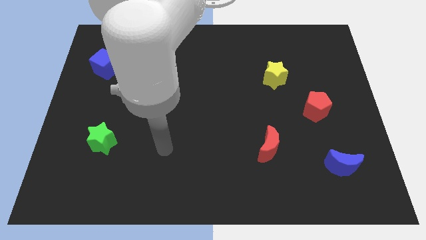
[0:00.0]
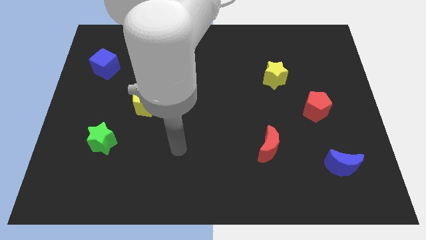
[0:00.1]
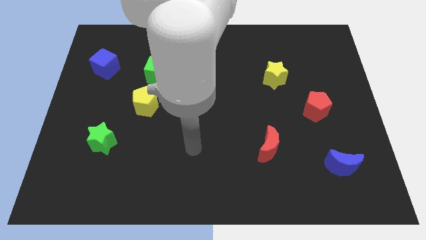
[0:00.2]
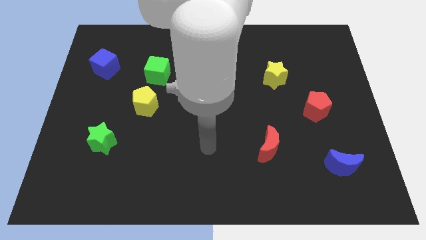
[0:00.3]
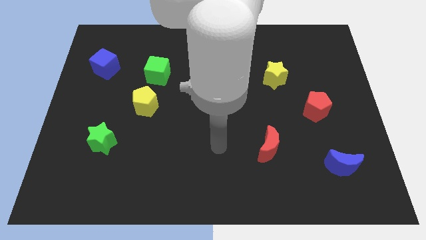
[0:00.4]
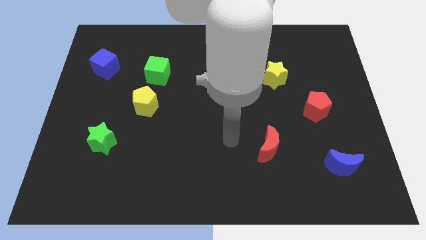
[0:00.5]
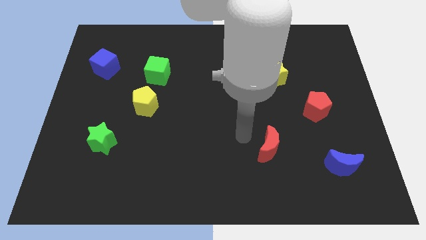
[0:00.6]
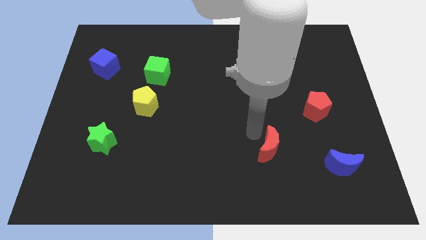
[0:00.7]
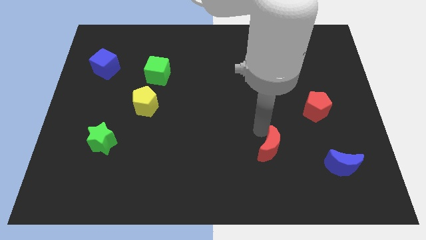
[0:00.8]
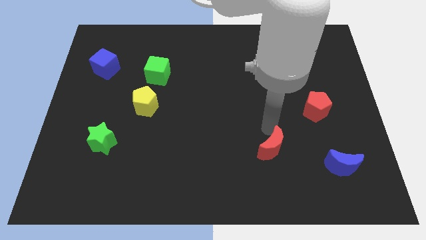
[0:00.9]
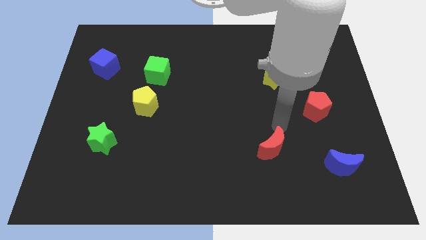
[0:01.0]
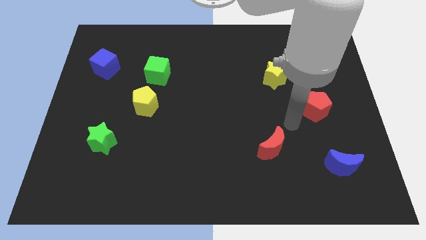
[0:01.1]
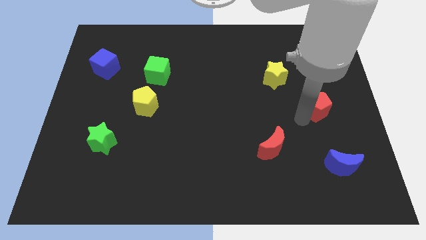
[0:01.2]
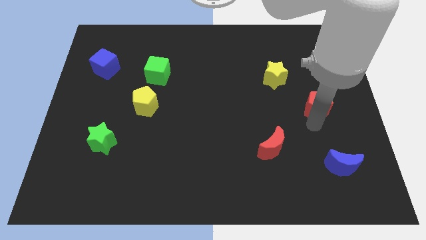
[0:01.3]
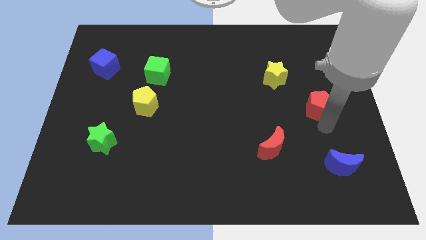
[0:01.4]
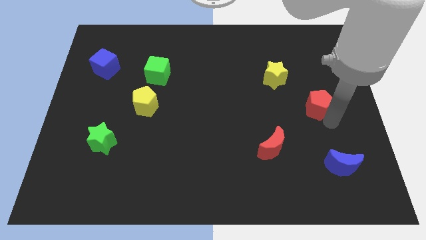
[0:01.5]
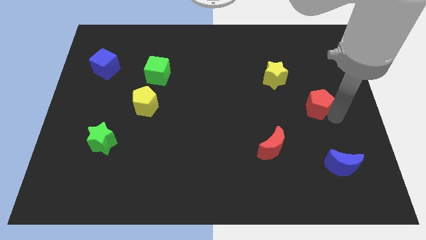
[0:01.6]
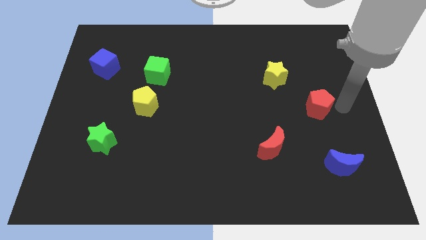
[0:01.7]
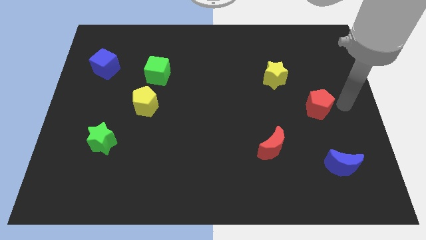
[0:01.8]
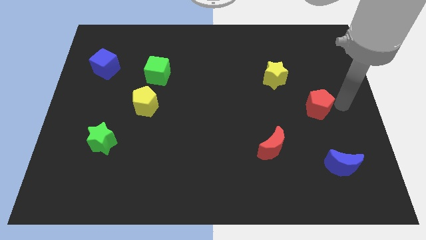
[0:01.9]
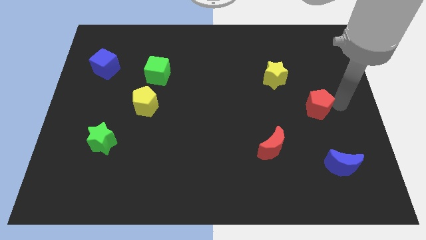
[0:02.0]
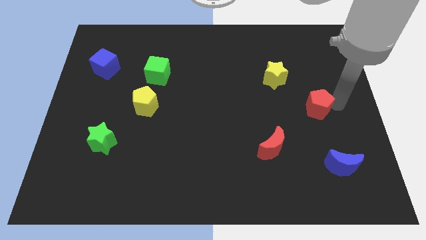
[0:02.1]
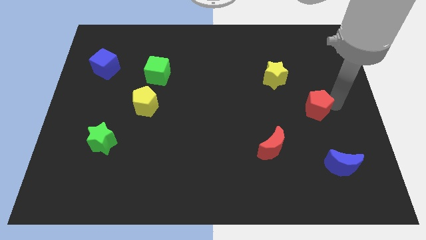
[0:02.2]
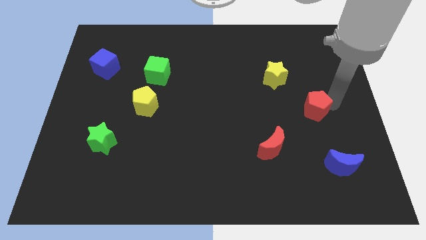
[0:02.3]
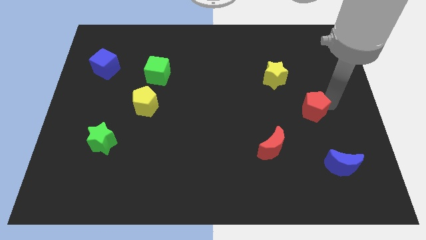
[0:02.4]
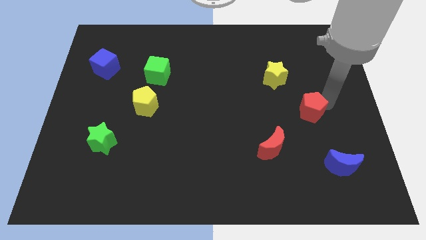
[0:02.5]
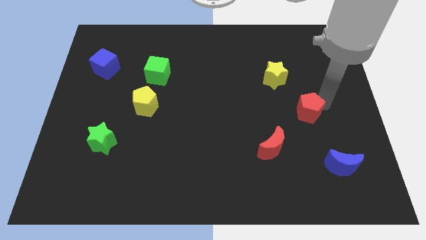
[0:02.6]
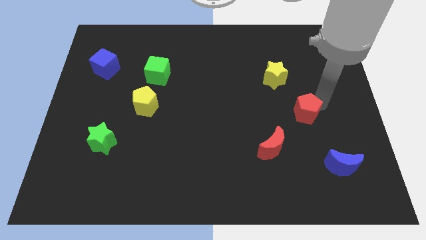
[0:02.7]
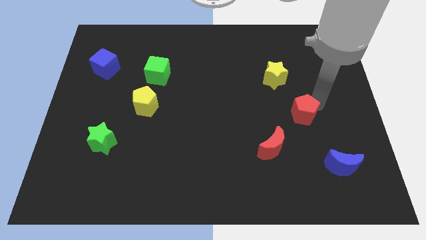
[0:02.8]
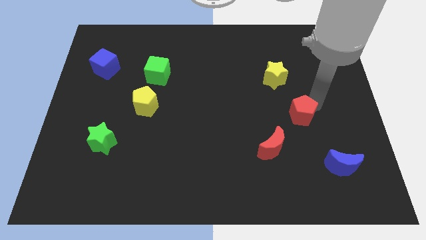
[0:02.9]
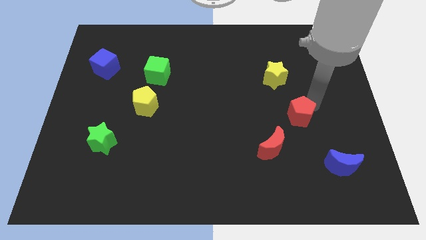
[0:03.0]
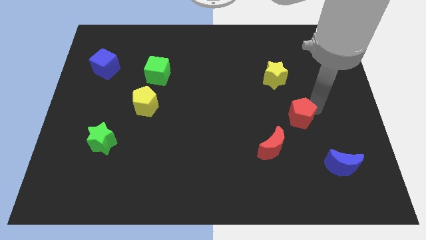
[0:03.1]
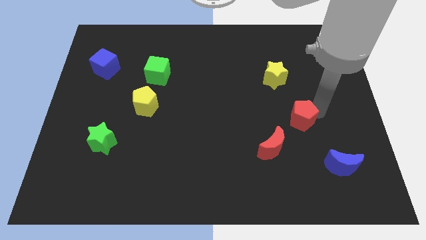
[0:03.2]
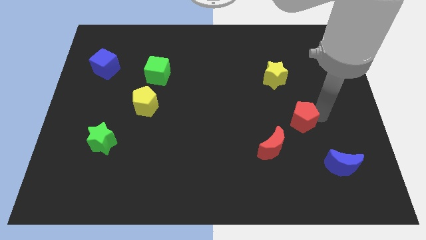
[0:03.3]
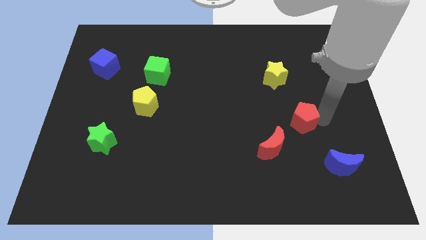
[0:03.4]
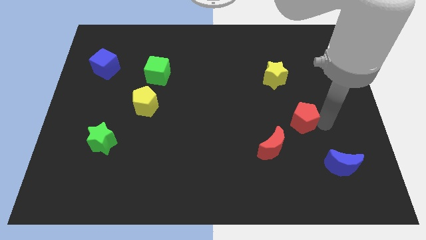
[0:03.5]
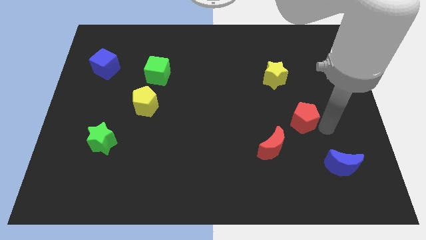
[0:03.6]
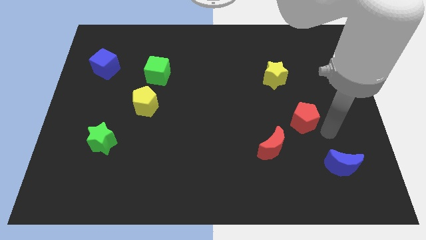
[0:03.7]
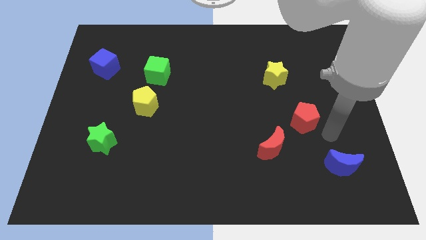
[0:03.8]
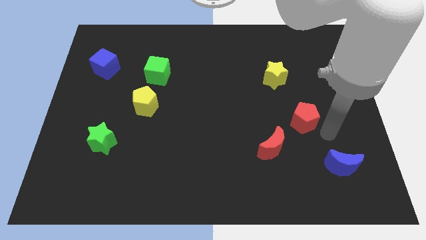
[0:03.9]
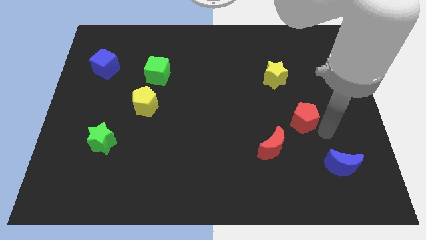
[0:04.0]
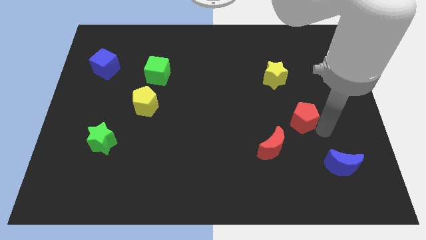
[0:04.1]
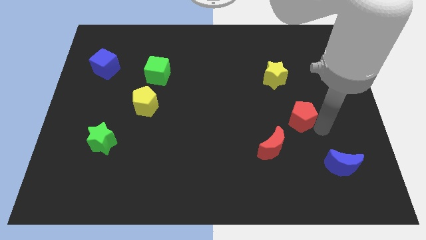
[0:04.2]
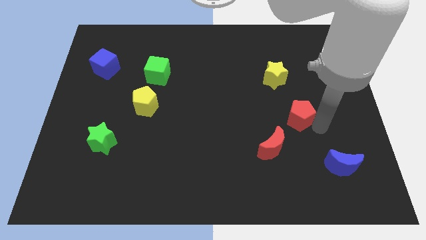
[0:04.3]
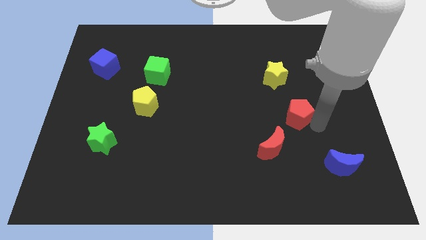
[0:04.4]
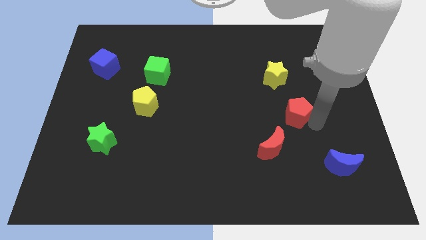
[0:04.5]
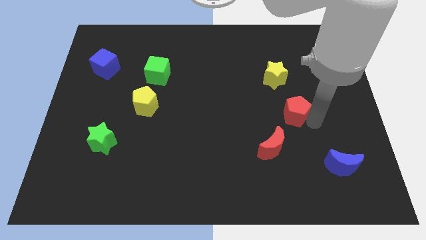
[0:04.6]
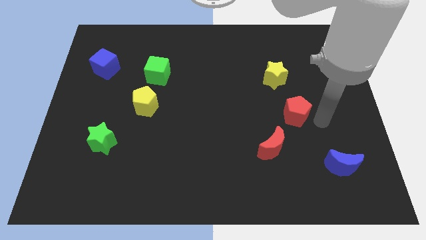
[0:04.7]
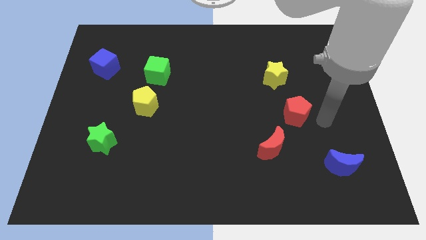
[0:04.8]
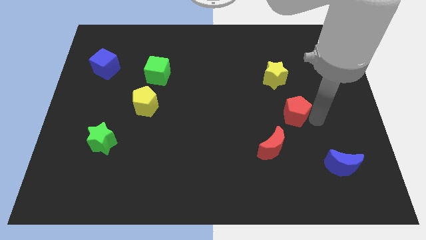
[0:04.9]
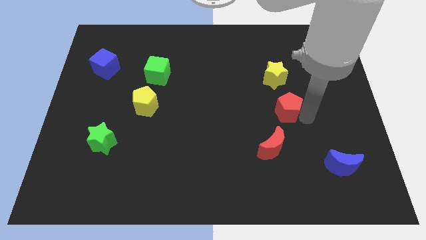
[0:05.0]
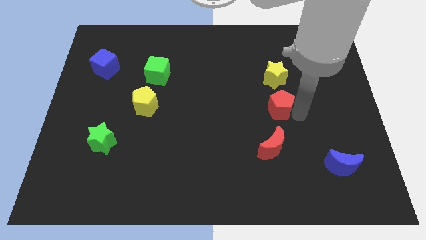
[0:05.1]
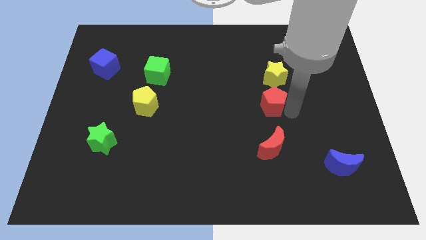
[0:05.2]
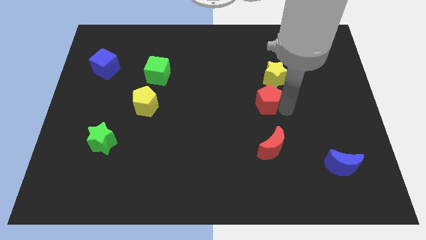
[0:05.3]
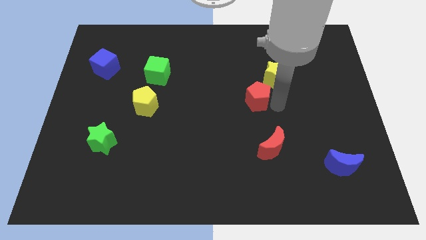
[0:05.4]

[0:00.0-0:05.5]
put the red pentagon to the middle
